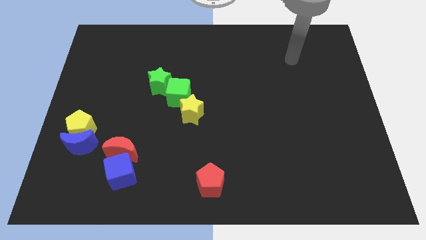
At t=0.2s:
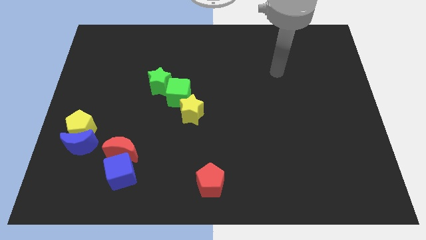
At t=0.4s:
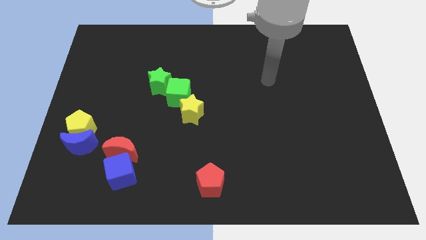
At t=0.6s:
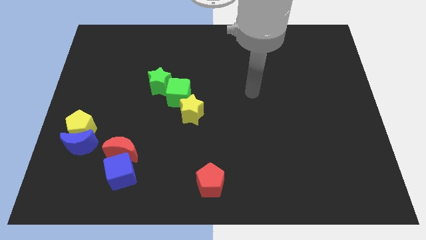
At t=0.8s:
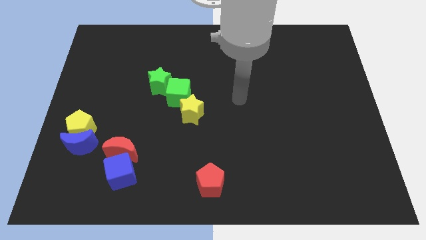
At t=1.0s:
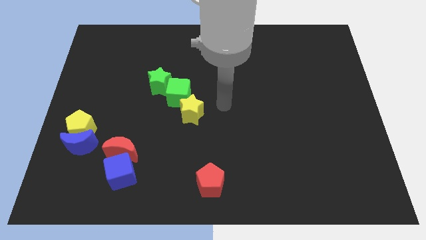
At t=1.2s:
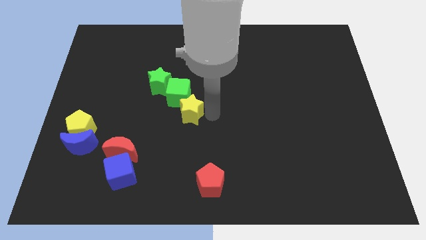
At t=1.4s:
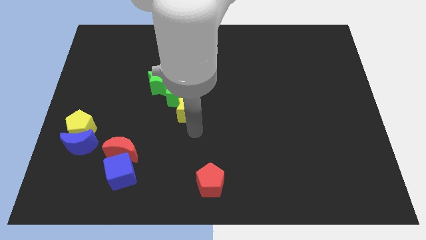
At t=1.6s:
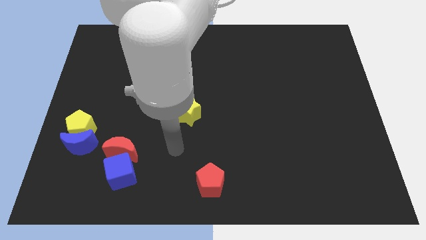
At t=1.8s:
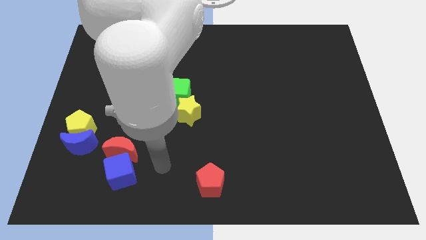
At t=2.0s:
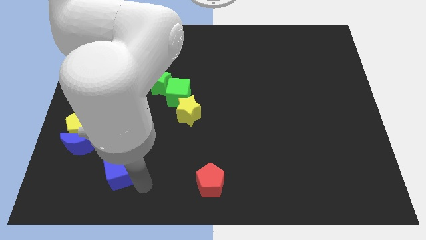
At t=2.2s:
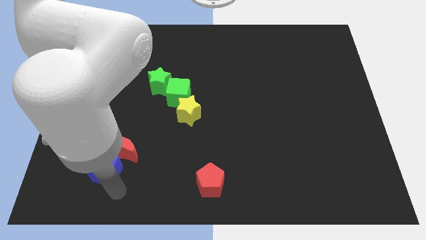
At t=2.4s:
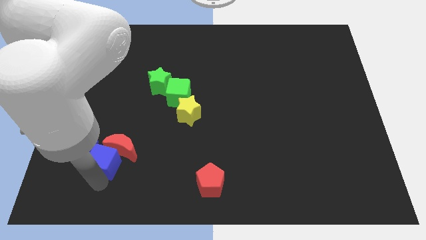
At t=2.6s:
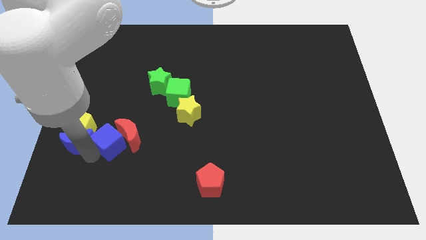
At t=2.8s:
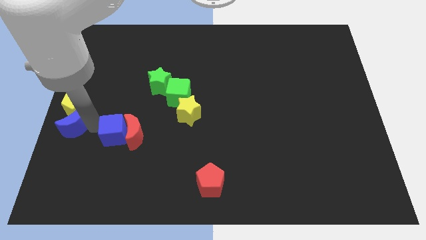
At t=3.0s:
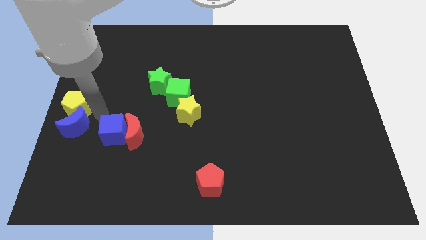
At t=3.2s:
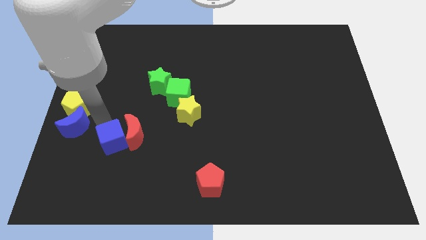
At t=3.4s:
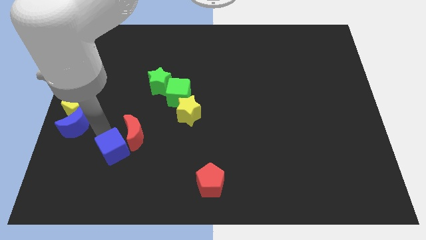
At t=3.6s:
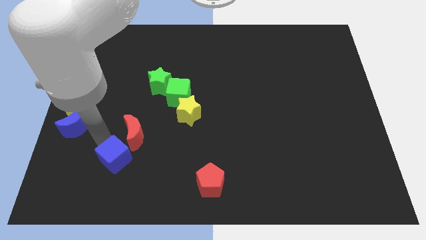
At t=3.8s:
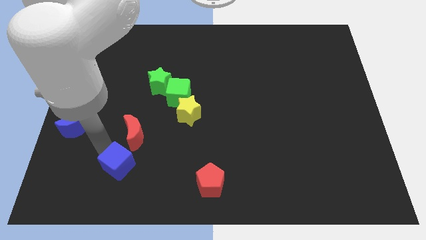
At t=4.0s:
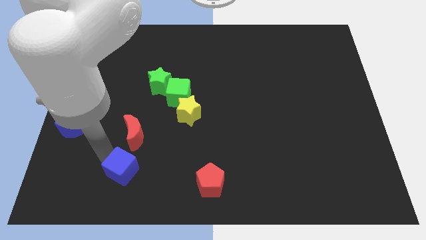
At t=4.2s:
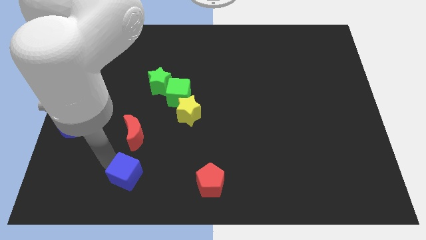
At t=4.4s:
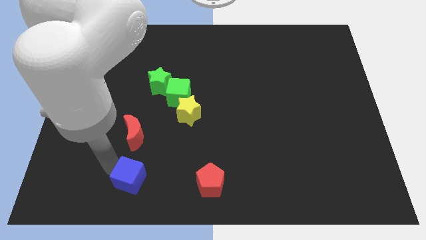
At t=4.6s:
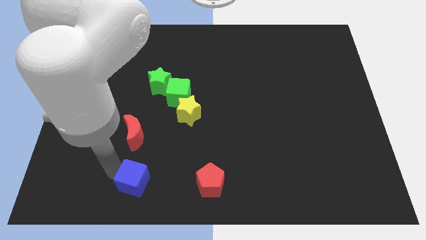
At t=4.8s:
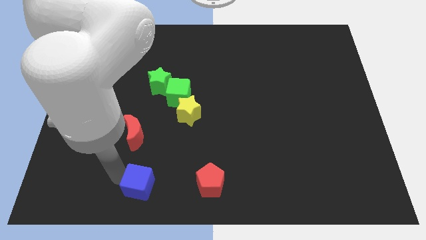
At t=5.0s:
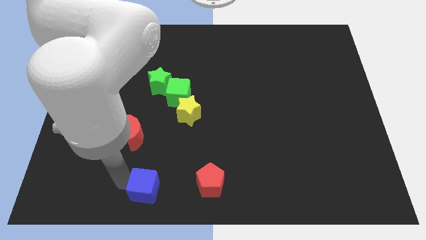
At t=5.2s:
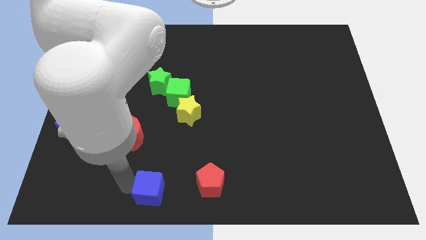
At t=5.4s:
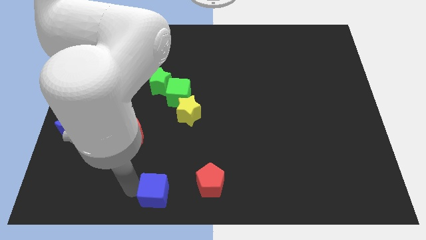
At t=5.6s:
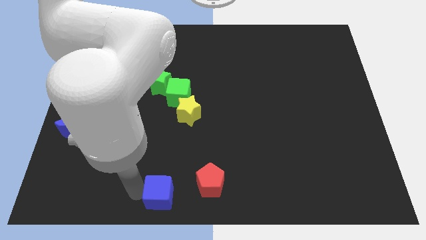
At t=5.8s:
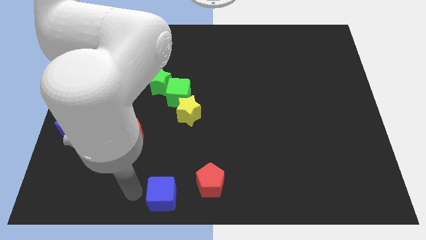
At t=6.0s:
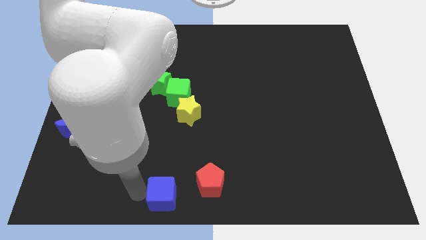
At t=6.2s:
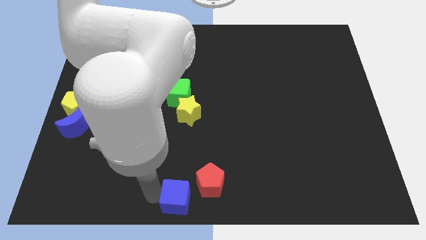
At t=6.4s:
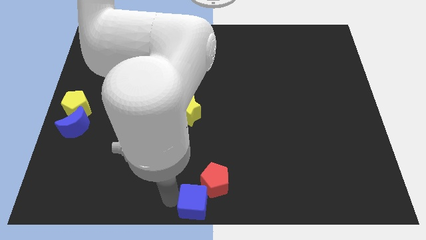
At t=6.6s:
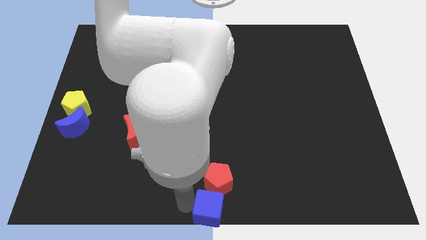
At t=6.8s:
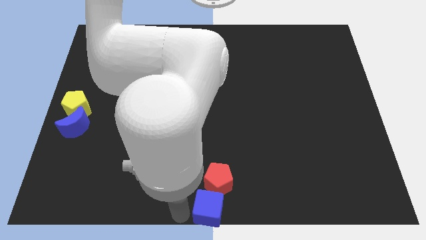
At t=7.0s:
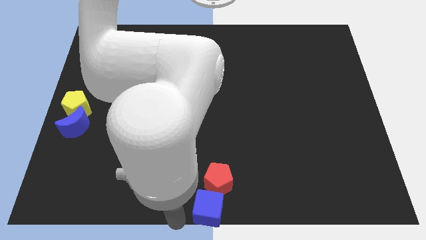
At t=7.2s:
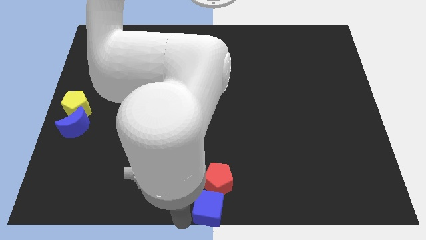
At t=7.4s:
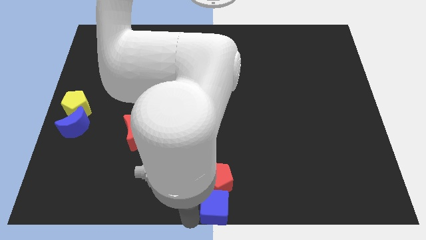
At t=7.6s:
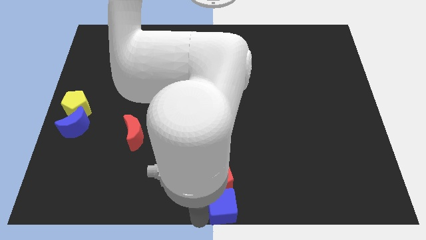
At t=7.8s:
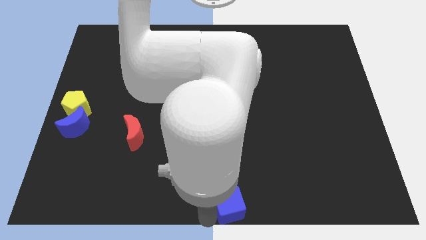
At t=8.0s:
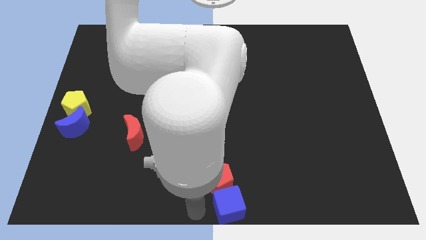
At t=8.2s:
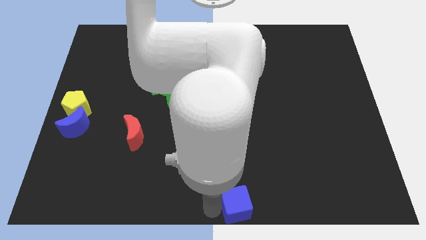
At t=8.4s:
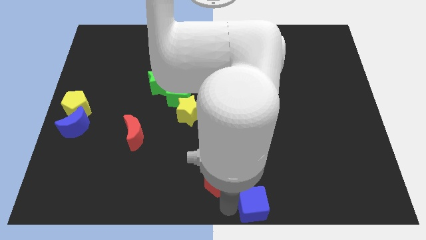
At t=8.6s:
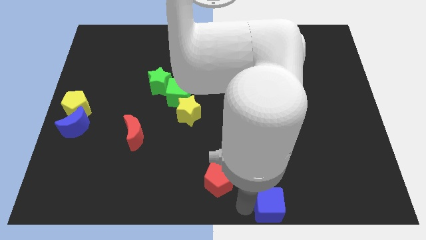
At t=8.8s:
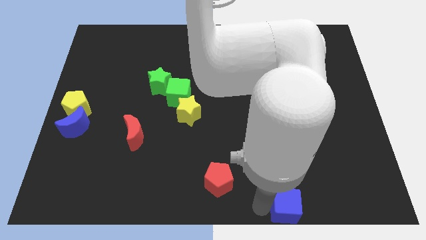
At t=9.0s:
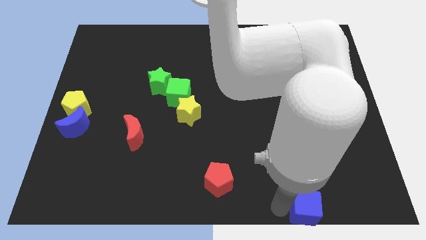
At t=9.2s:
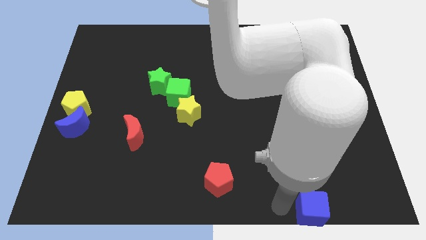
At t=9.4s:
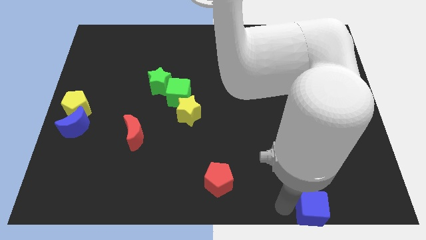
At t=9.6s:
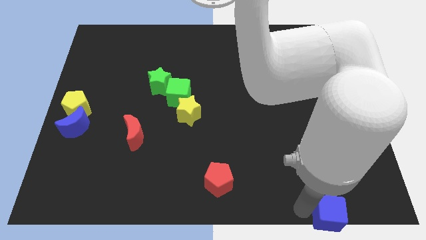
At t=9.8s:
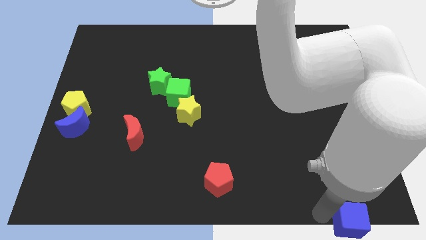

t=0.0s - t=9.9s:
push the blue cube to the lower right corner
